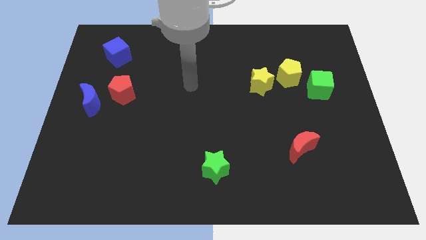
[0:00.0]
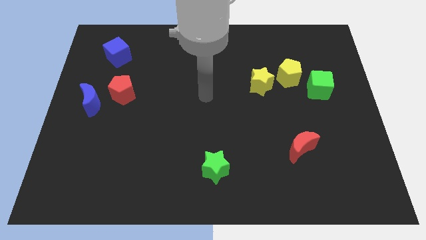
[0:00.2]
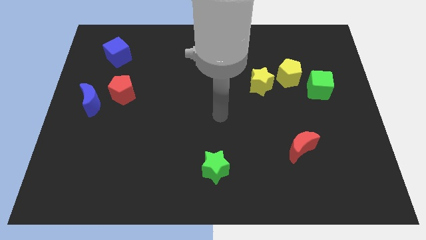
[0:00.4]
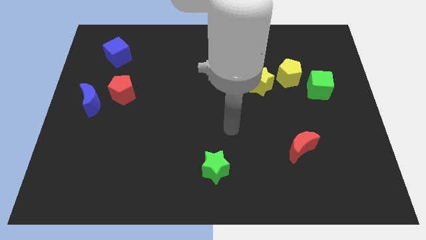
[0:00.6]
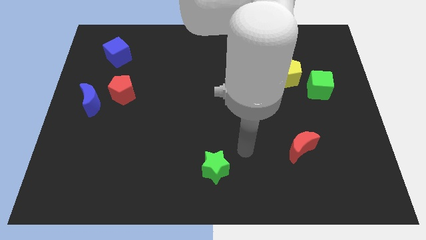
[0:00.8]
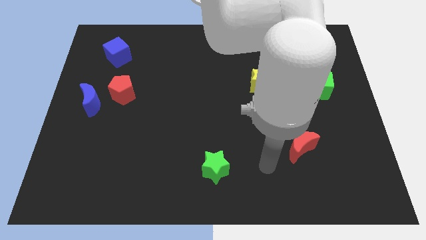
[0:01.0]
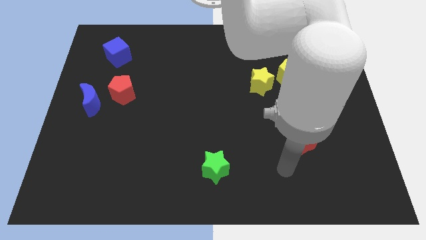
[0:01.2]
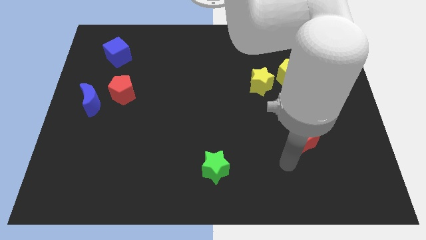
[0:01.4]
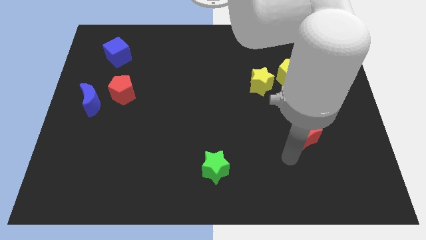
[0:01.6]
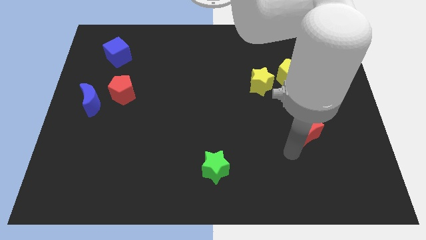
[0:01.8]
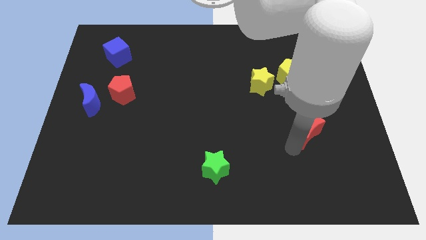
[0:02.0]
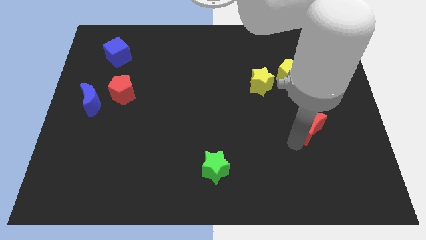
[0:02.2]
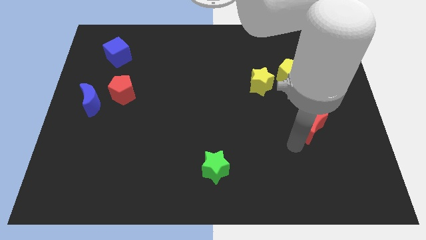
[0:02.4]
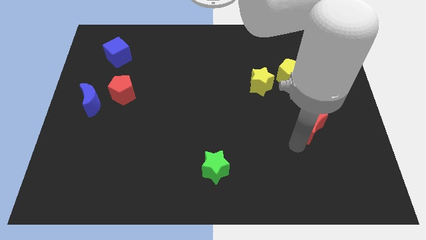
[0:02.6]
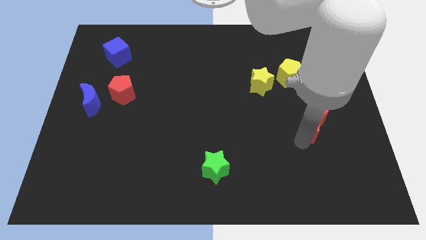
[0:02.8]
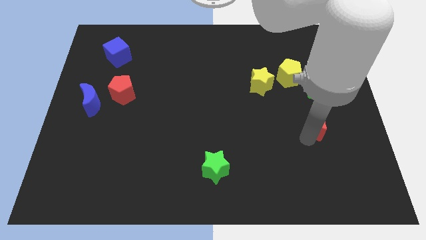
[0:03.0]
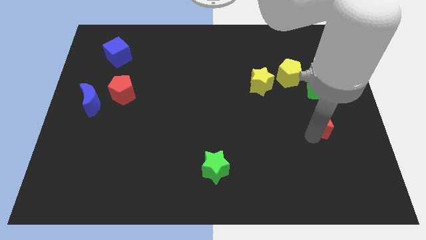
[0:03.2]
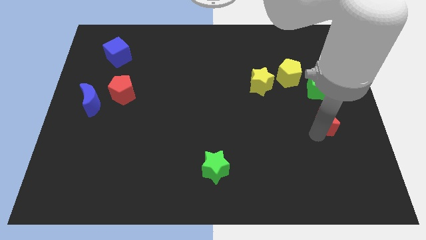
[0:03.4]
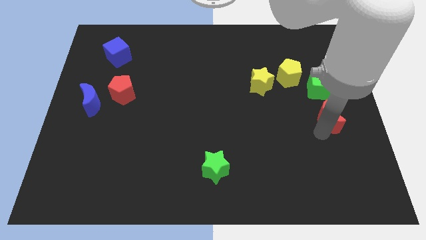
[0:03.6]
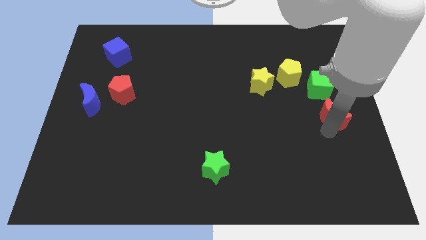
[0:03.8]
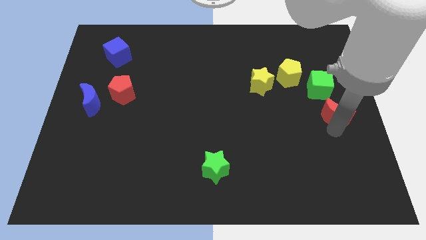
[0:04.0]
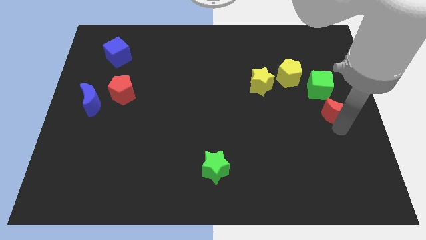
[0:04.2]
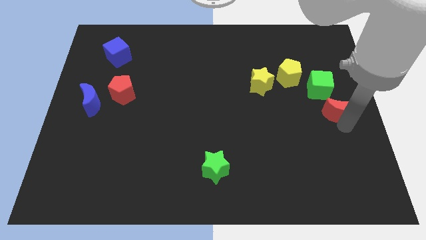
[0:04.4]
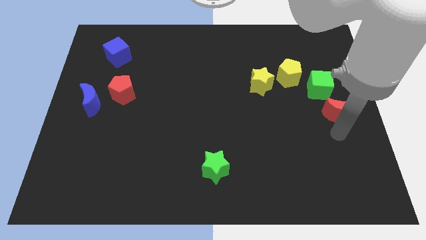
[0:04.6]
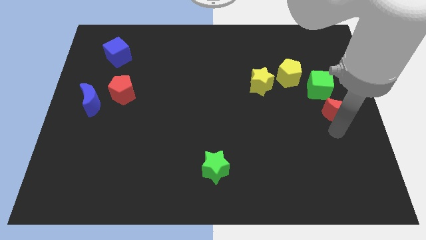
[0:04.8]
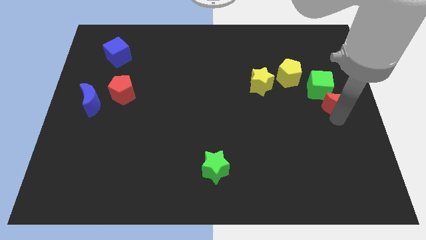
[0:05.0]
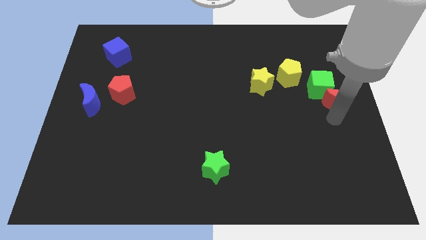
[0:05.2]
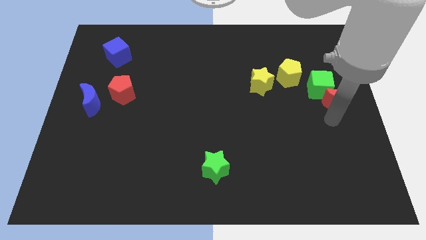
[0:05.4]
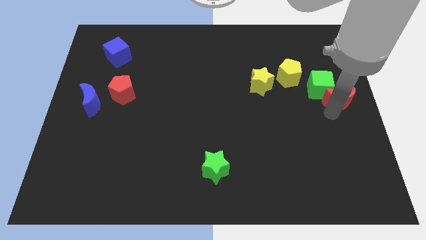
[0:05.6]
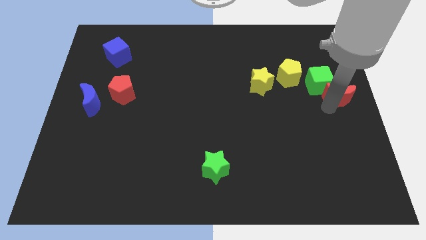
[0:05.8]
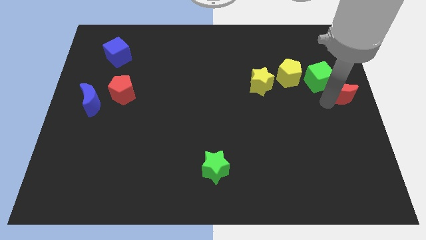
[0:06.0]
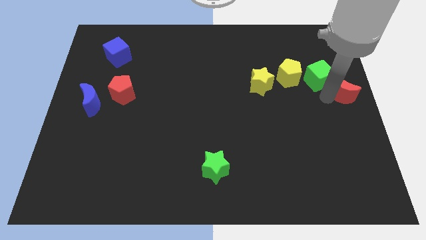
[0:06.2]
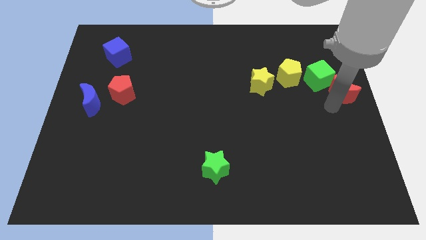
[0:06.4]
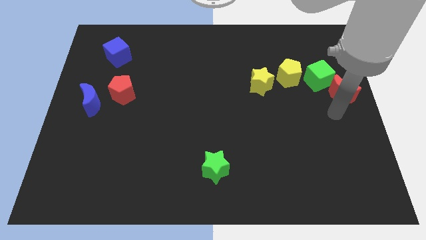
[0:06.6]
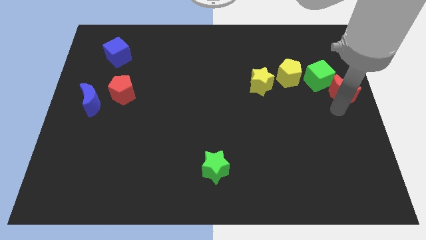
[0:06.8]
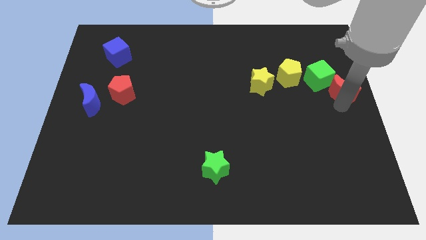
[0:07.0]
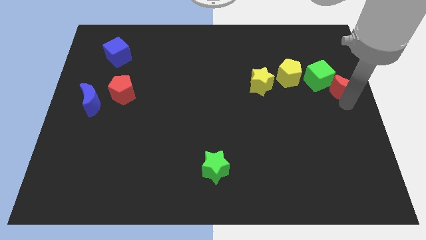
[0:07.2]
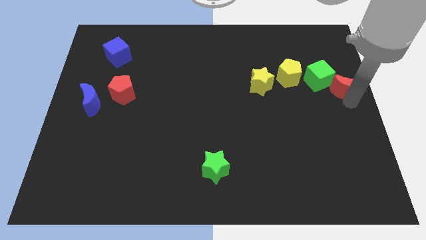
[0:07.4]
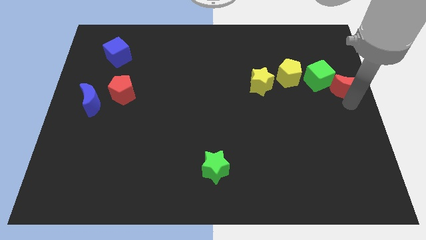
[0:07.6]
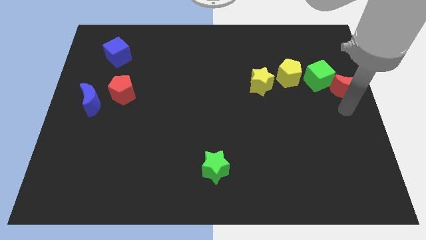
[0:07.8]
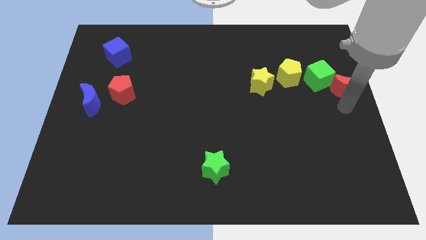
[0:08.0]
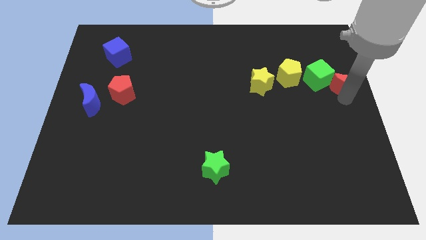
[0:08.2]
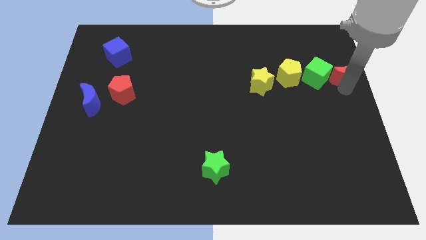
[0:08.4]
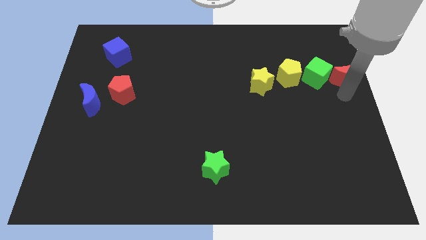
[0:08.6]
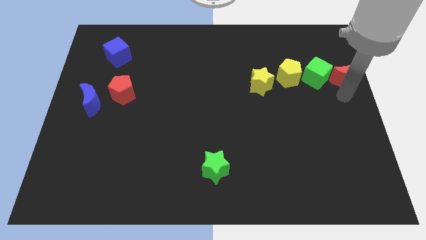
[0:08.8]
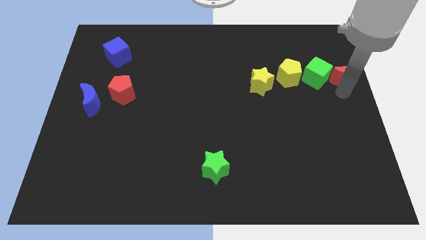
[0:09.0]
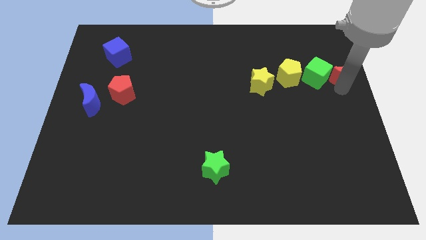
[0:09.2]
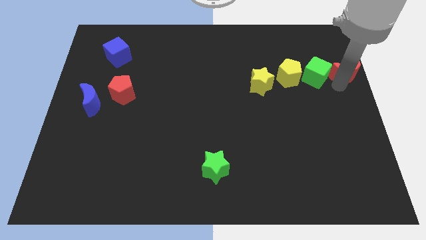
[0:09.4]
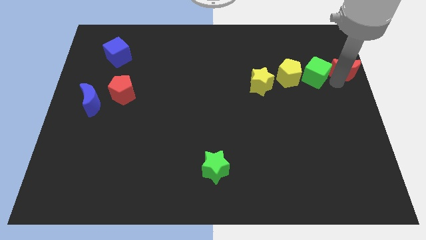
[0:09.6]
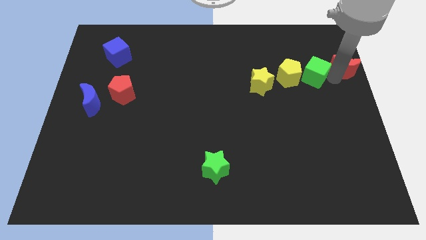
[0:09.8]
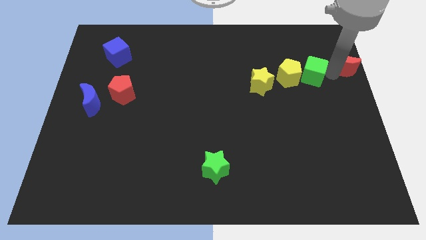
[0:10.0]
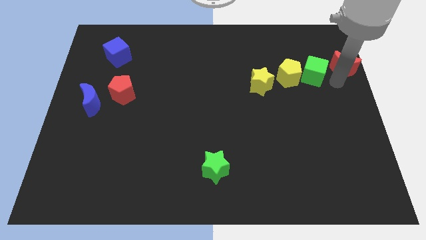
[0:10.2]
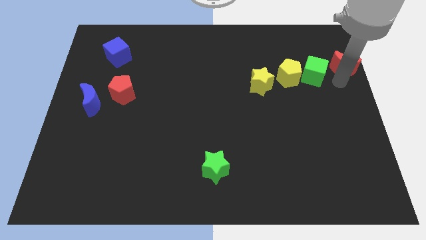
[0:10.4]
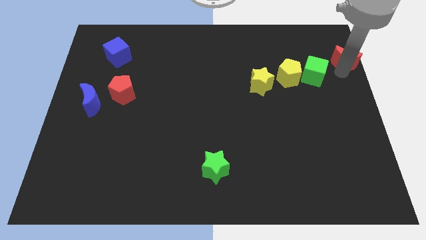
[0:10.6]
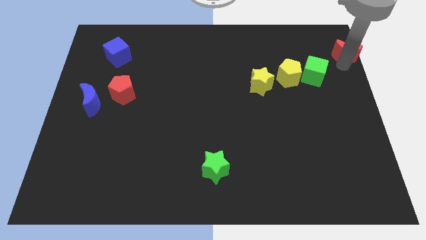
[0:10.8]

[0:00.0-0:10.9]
put the red moon to the top right of the board

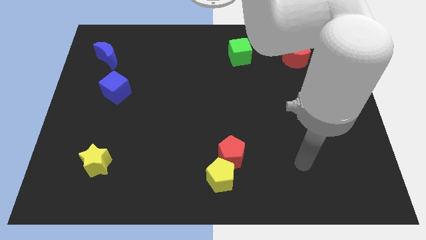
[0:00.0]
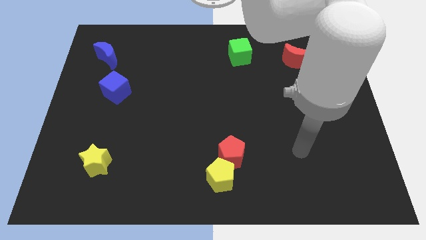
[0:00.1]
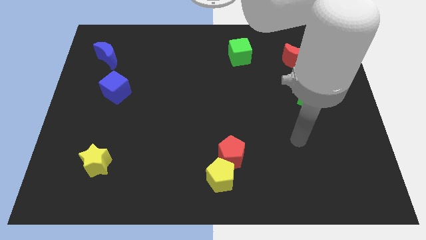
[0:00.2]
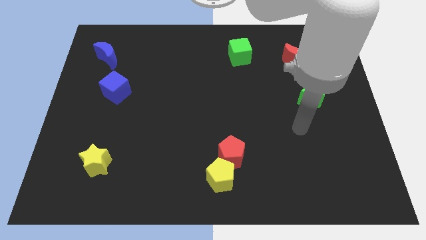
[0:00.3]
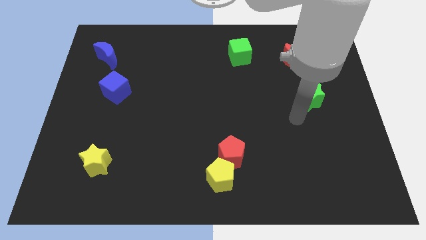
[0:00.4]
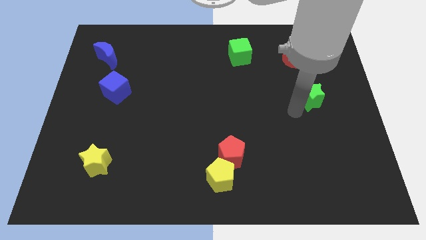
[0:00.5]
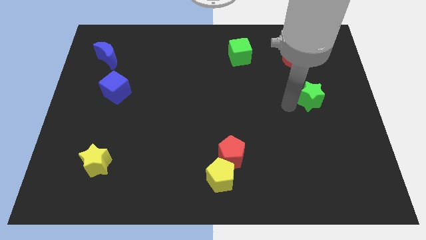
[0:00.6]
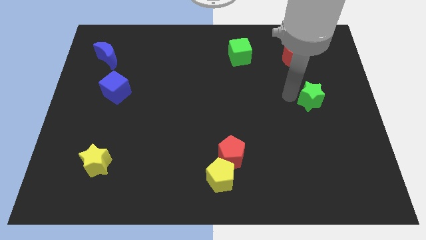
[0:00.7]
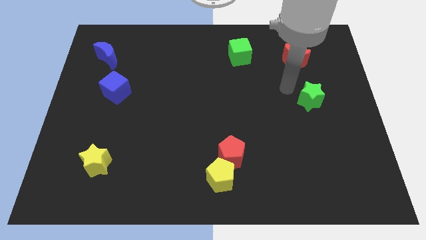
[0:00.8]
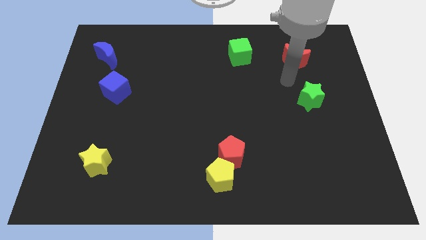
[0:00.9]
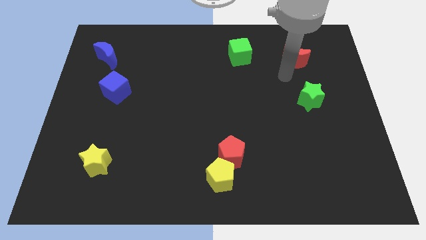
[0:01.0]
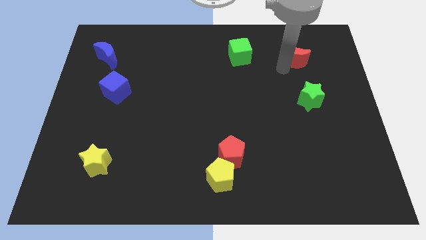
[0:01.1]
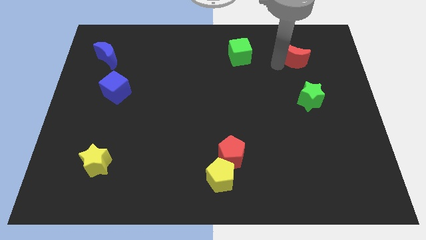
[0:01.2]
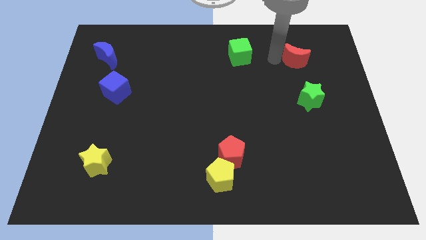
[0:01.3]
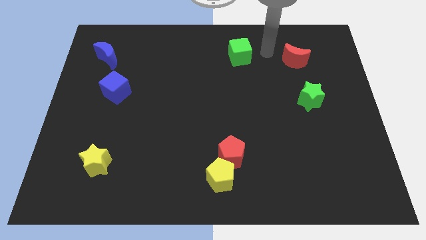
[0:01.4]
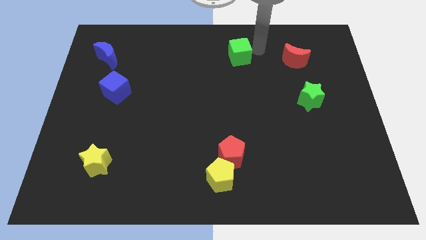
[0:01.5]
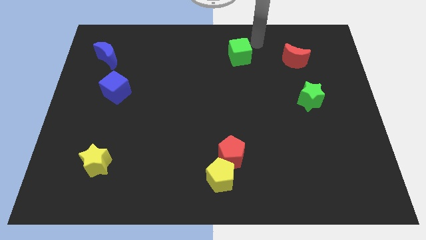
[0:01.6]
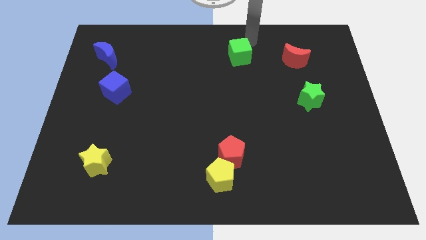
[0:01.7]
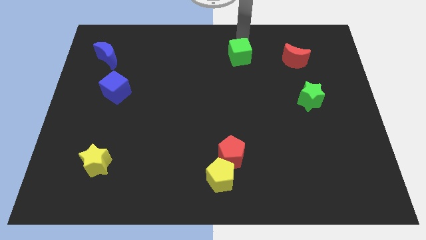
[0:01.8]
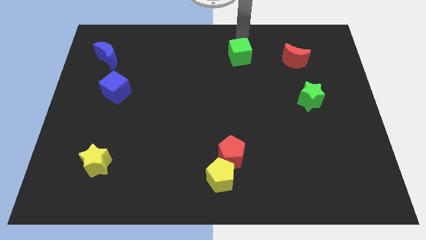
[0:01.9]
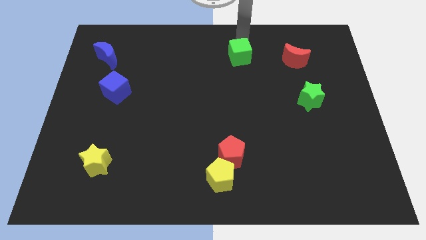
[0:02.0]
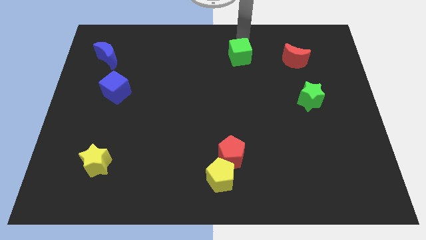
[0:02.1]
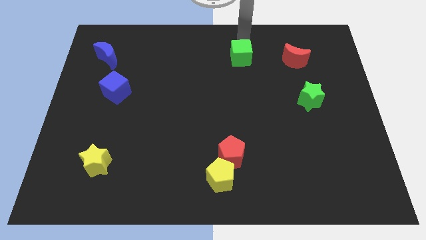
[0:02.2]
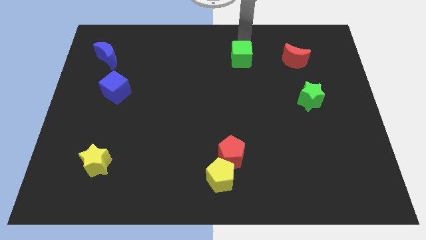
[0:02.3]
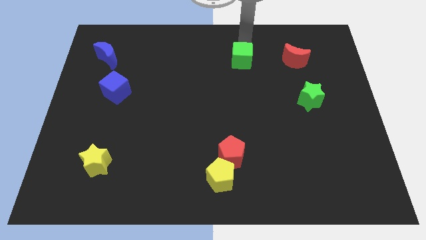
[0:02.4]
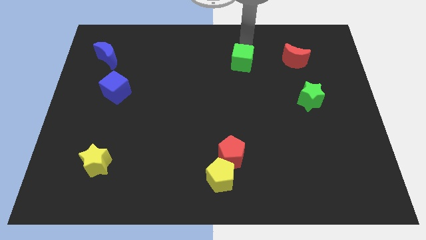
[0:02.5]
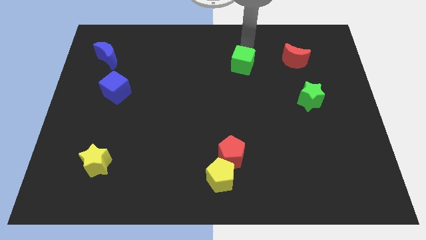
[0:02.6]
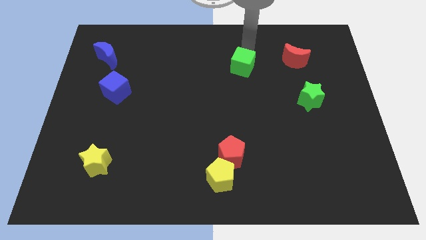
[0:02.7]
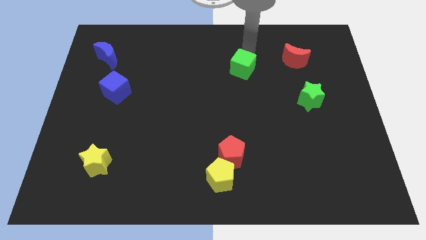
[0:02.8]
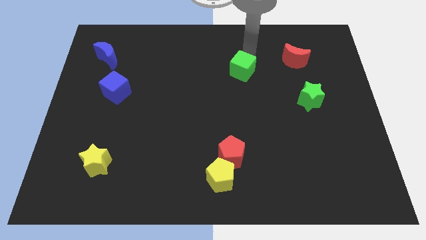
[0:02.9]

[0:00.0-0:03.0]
slide the green cube to the middle of the board
